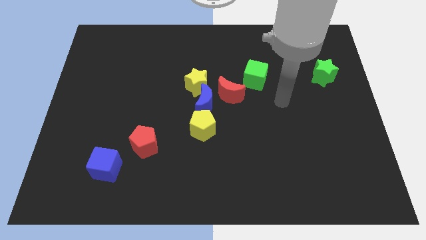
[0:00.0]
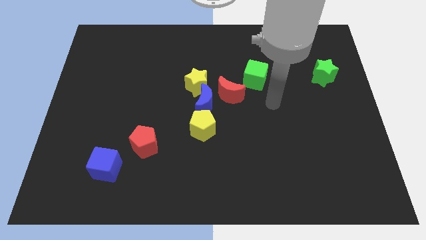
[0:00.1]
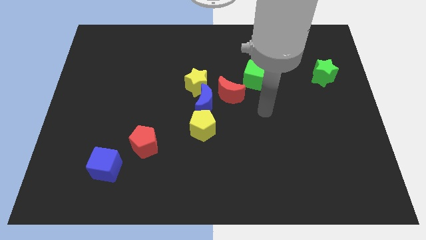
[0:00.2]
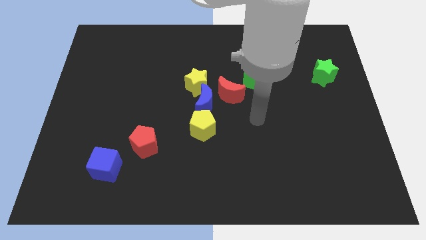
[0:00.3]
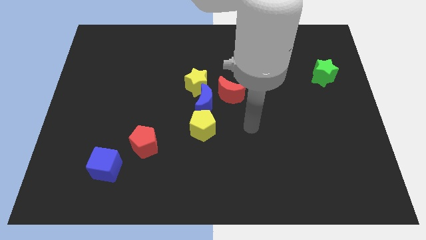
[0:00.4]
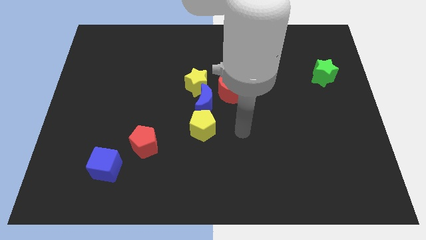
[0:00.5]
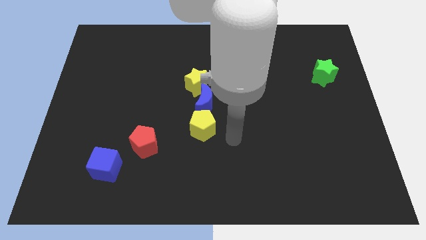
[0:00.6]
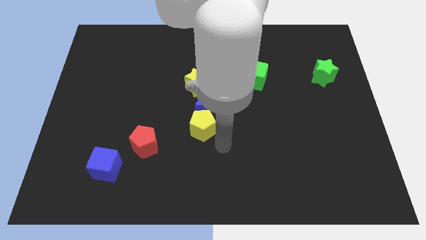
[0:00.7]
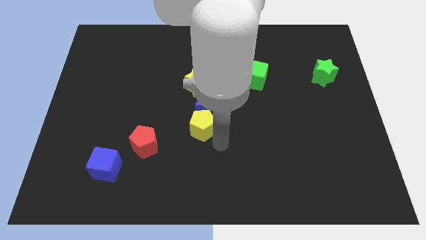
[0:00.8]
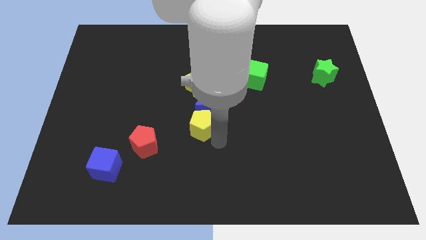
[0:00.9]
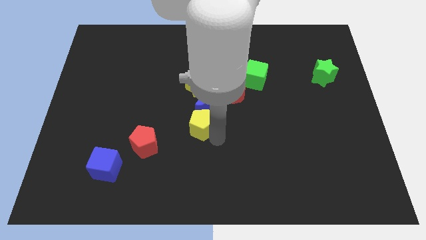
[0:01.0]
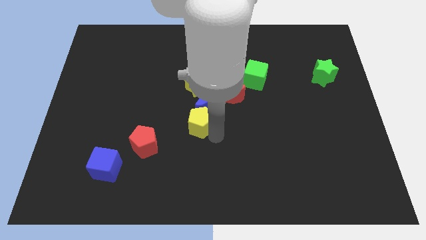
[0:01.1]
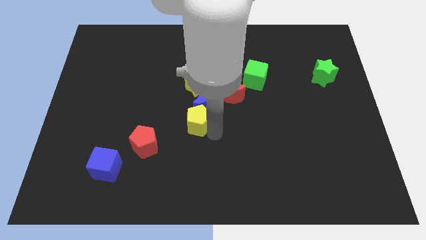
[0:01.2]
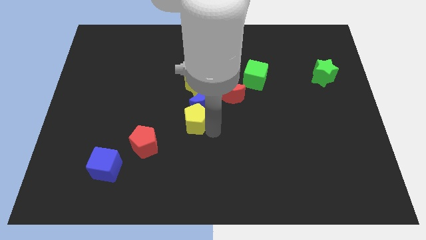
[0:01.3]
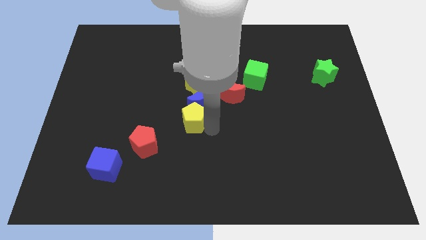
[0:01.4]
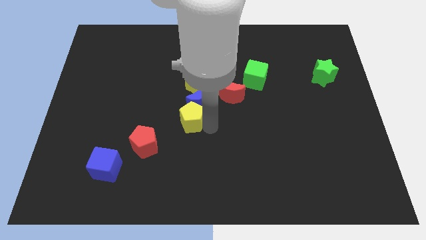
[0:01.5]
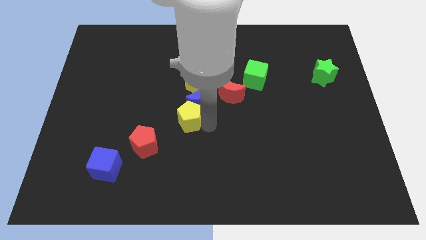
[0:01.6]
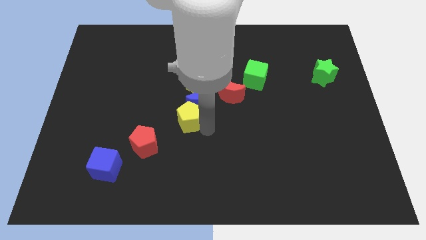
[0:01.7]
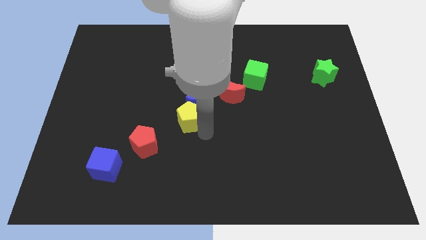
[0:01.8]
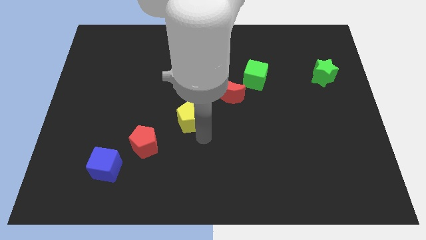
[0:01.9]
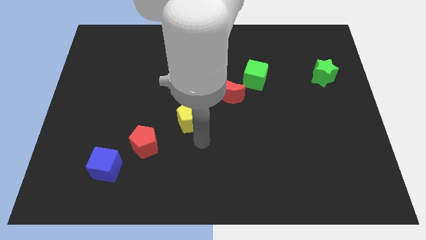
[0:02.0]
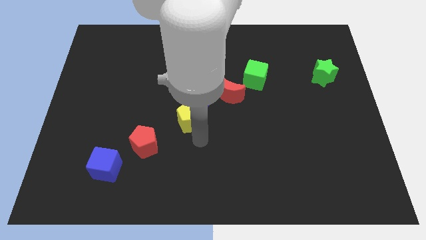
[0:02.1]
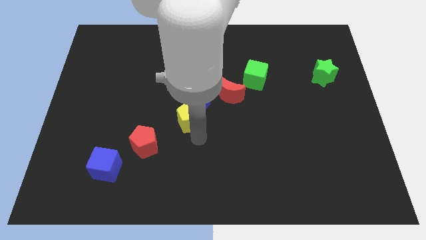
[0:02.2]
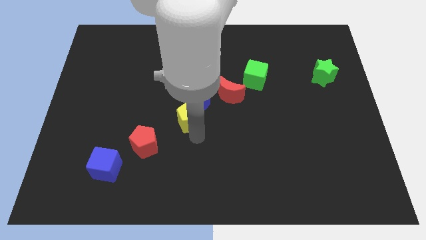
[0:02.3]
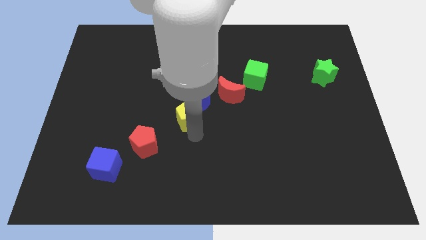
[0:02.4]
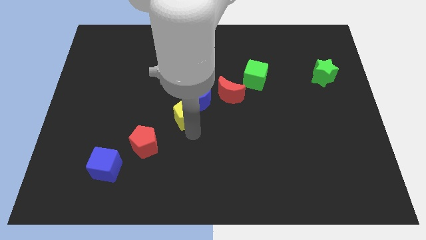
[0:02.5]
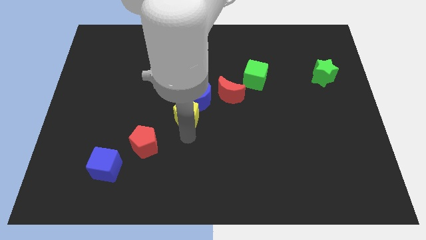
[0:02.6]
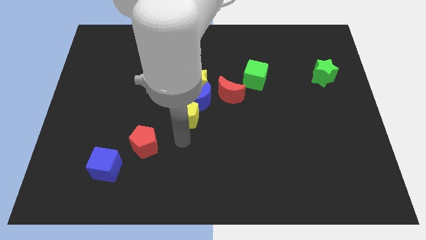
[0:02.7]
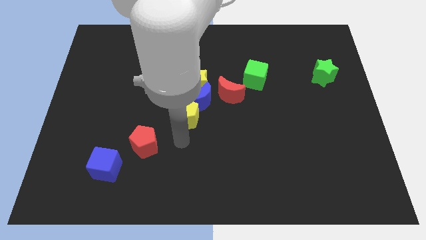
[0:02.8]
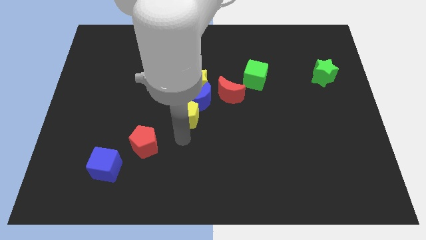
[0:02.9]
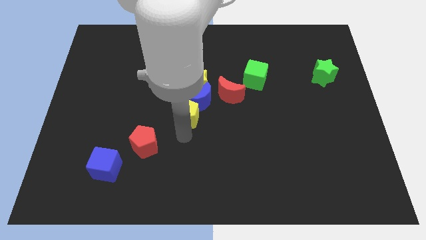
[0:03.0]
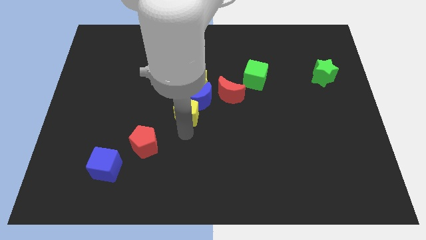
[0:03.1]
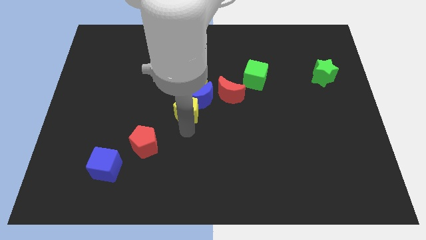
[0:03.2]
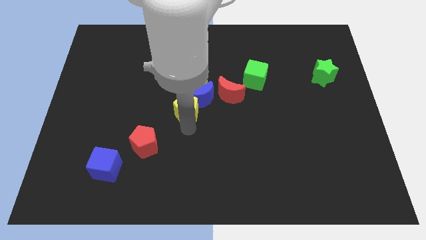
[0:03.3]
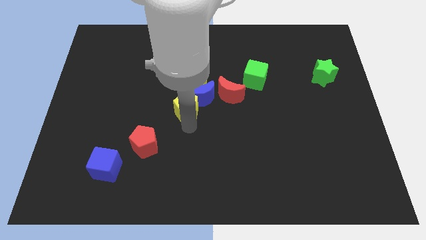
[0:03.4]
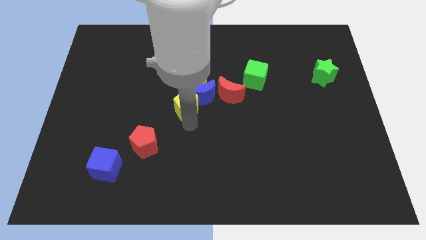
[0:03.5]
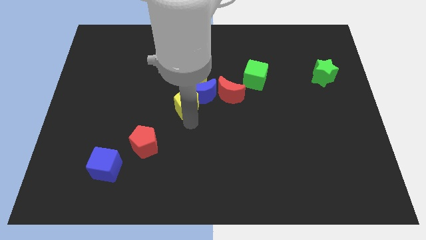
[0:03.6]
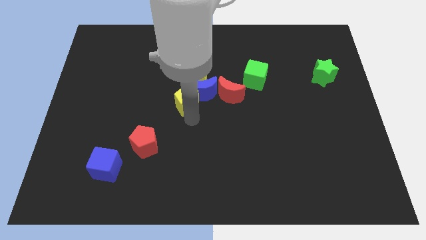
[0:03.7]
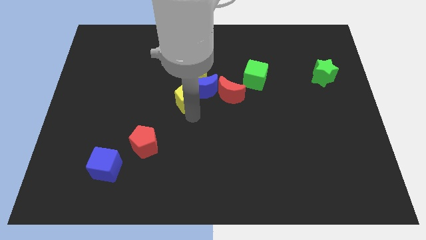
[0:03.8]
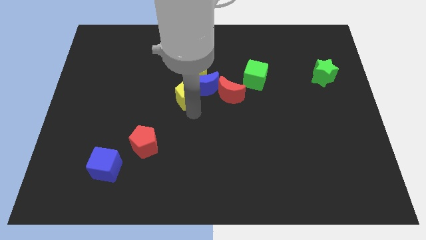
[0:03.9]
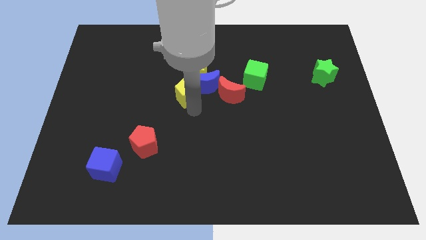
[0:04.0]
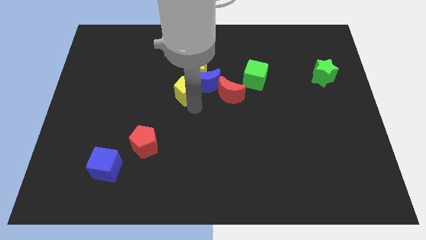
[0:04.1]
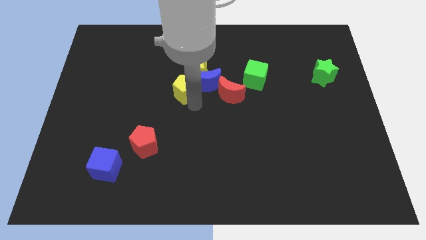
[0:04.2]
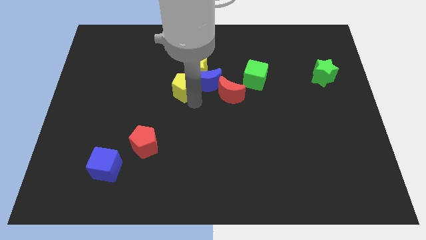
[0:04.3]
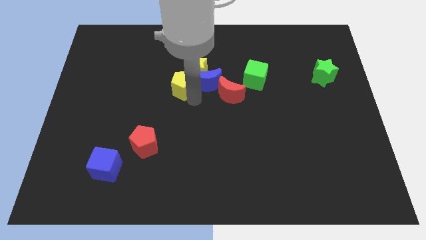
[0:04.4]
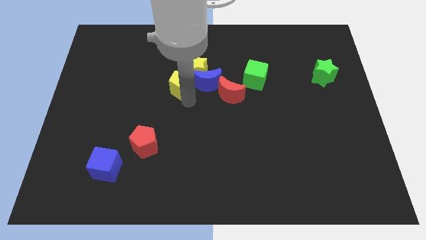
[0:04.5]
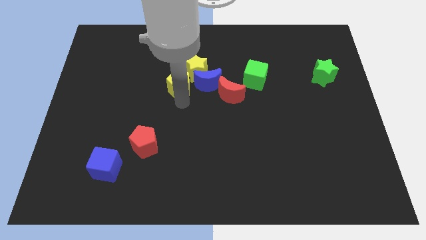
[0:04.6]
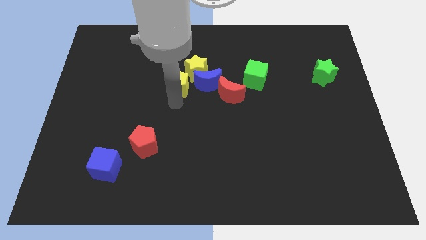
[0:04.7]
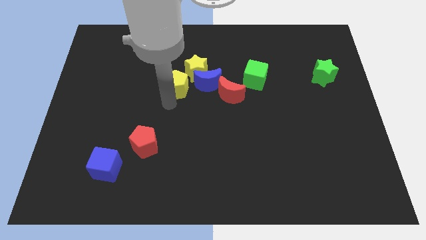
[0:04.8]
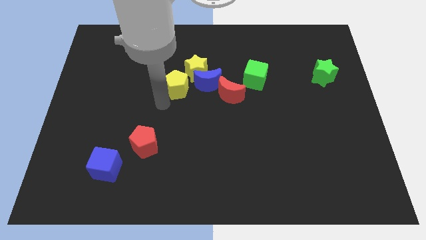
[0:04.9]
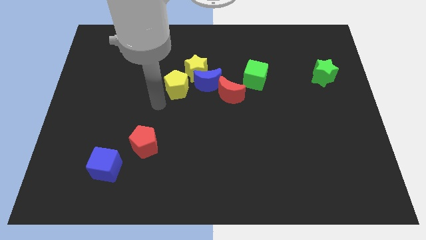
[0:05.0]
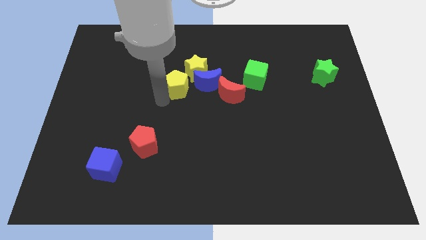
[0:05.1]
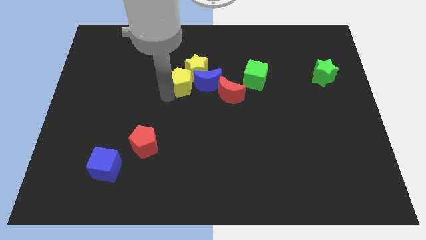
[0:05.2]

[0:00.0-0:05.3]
put the yellow pentagon towards the yellow star

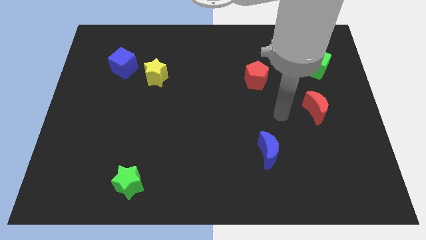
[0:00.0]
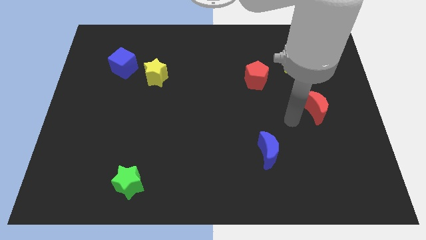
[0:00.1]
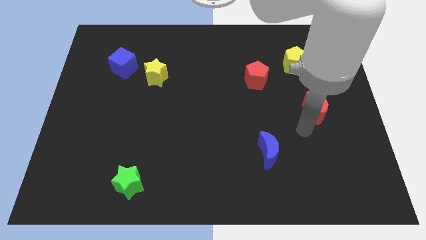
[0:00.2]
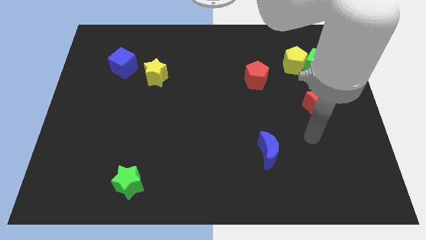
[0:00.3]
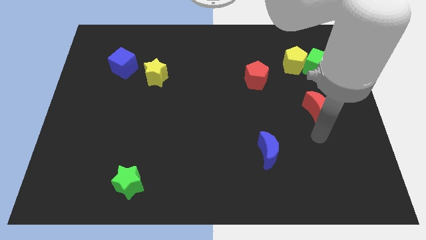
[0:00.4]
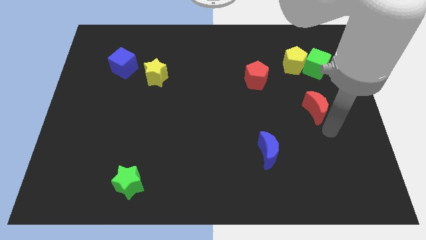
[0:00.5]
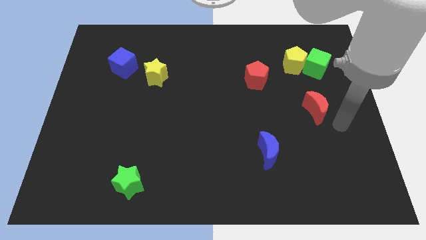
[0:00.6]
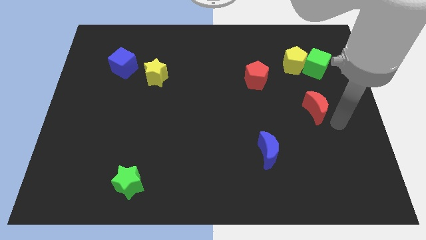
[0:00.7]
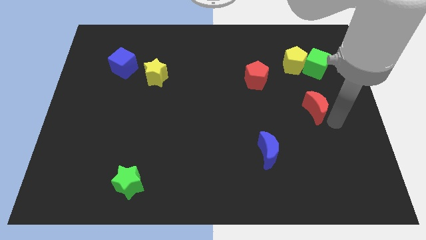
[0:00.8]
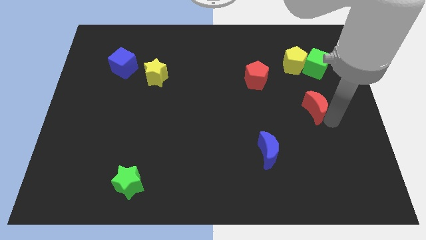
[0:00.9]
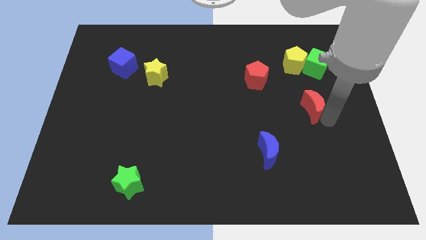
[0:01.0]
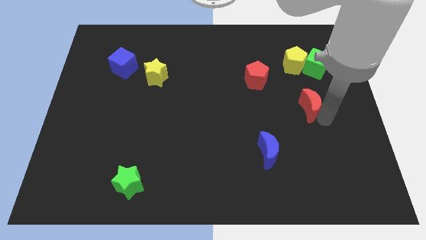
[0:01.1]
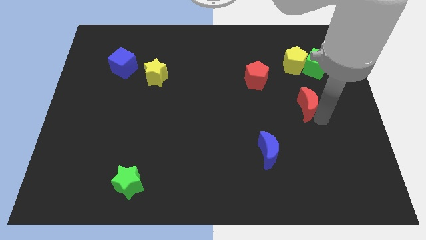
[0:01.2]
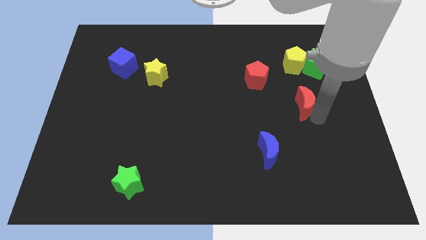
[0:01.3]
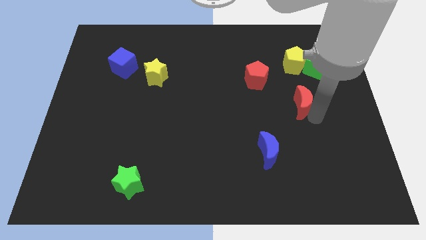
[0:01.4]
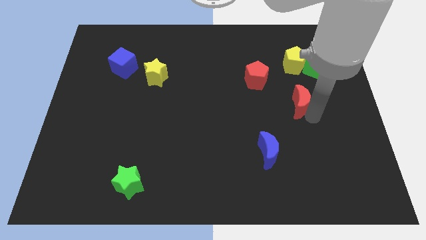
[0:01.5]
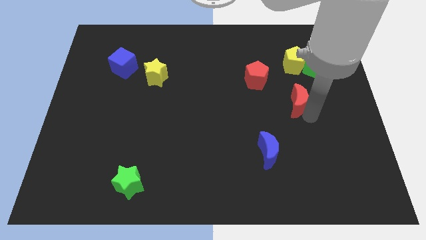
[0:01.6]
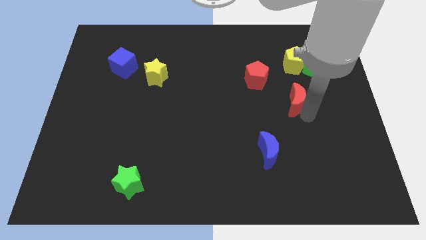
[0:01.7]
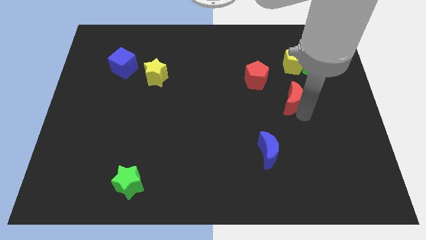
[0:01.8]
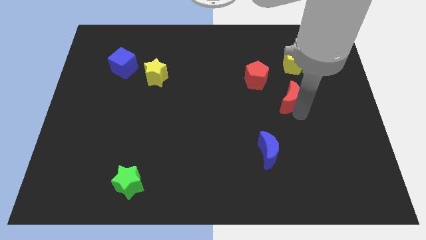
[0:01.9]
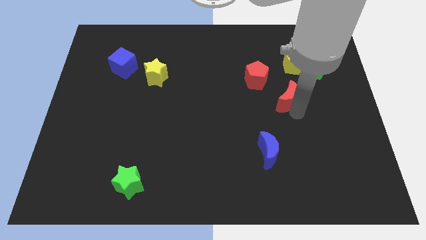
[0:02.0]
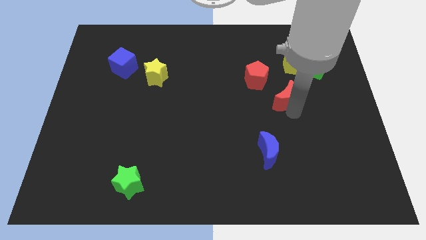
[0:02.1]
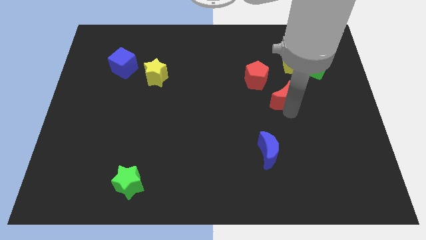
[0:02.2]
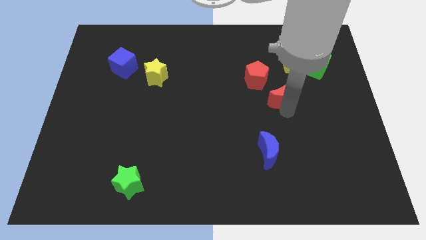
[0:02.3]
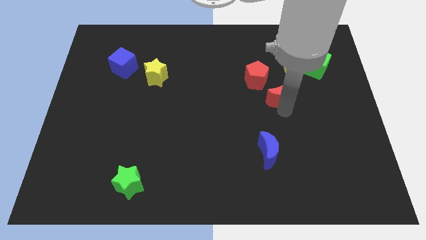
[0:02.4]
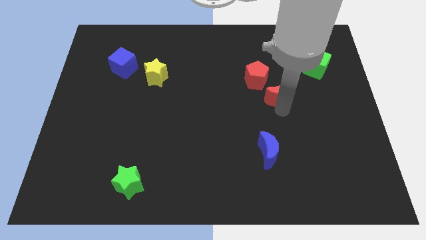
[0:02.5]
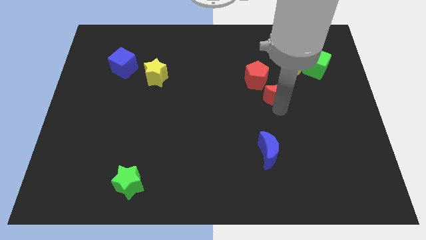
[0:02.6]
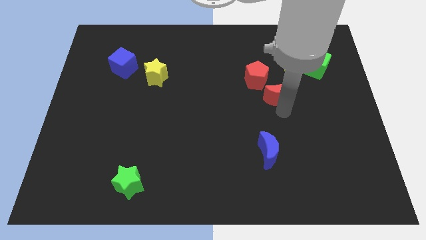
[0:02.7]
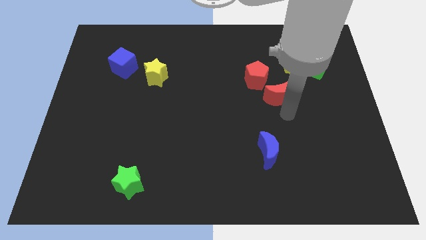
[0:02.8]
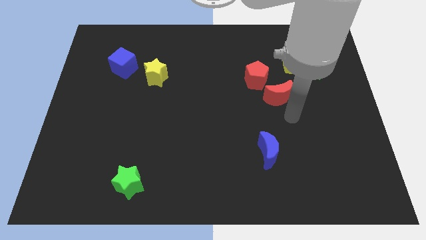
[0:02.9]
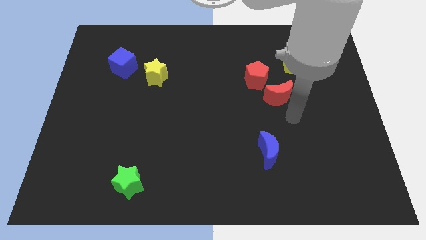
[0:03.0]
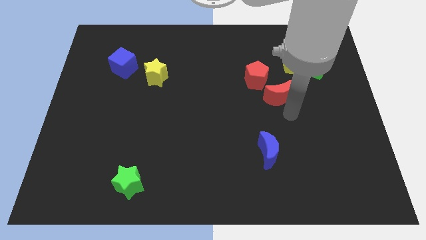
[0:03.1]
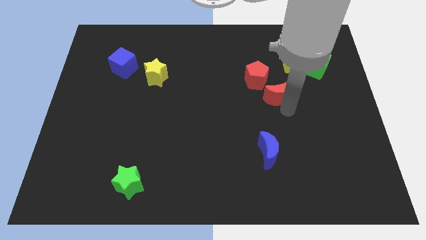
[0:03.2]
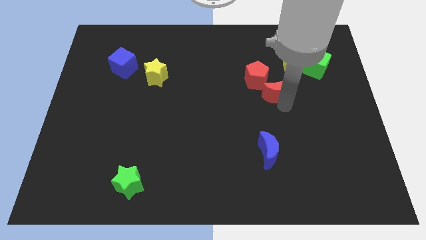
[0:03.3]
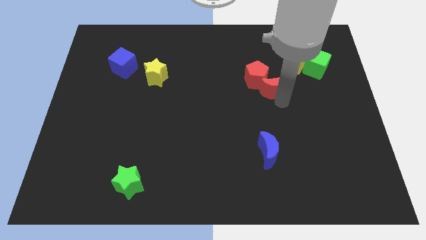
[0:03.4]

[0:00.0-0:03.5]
put the red moon next to the red pentagon
